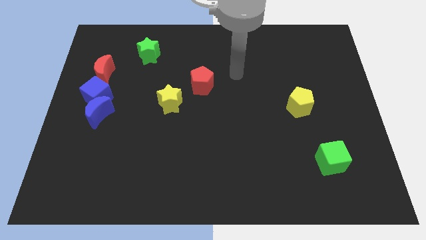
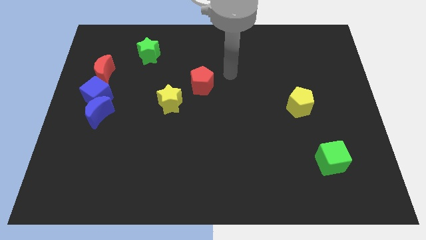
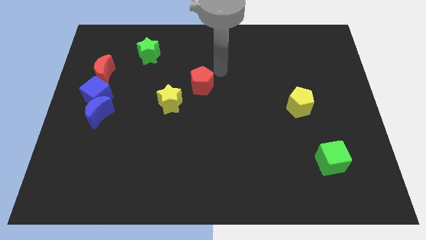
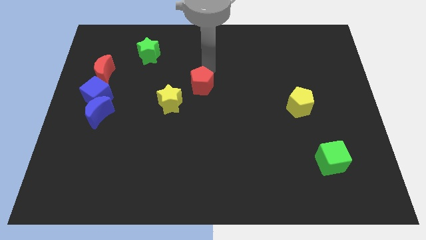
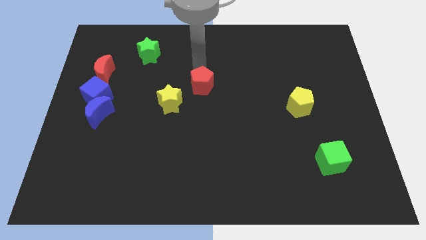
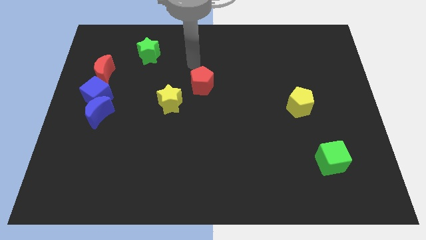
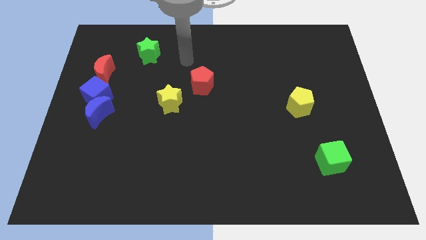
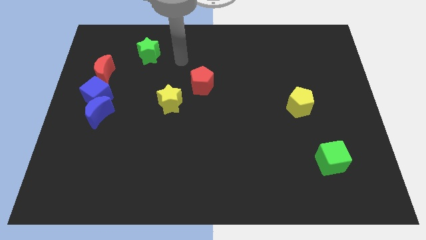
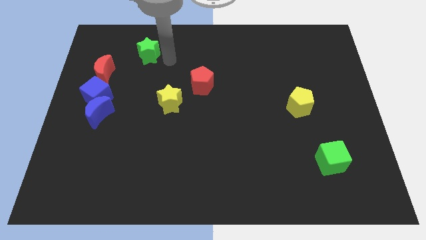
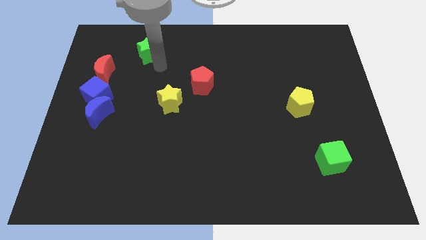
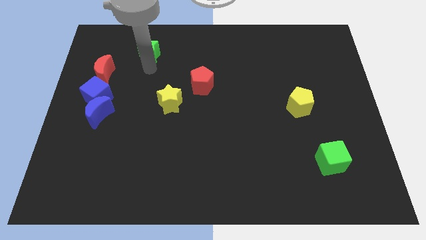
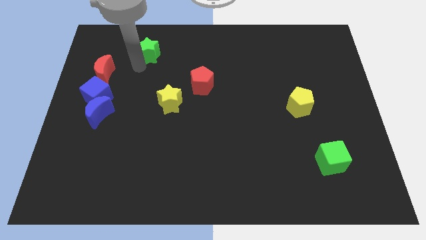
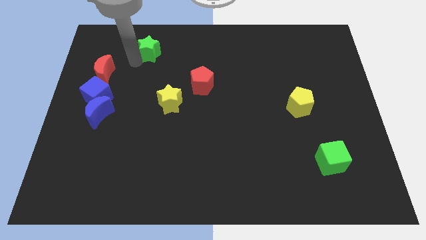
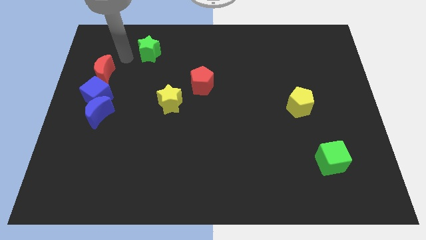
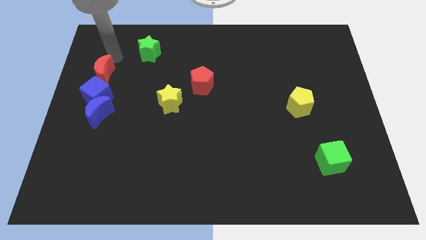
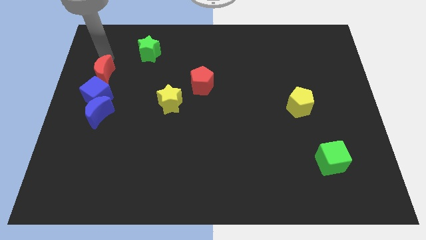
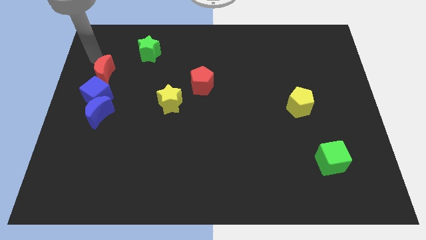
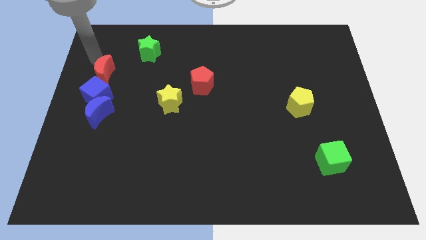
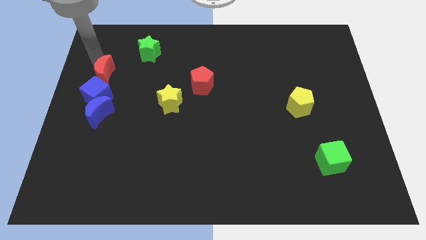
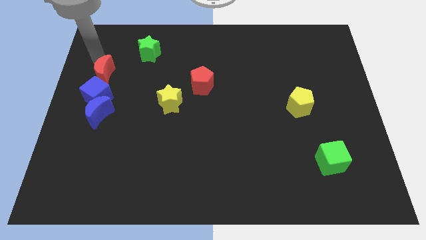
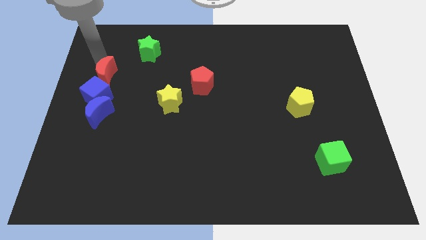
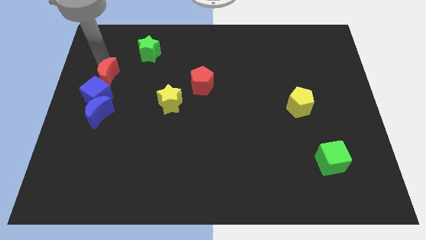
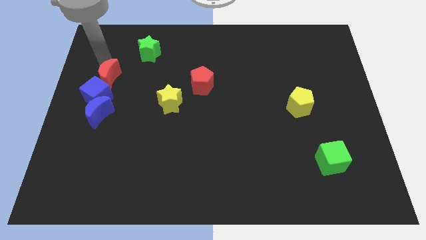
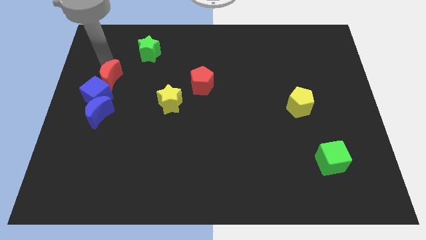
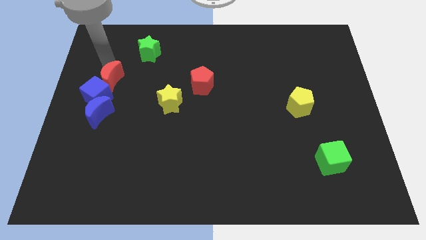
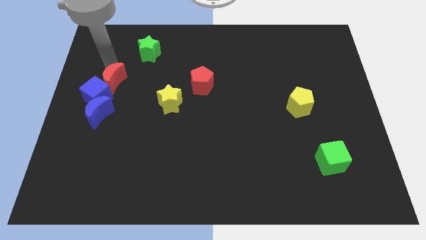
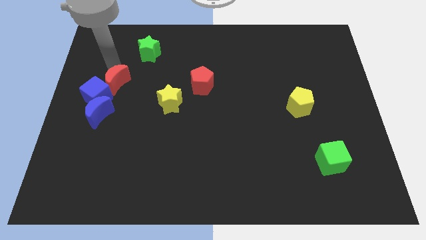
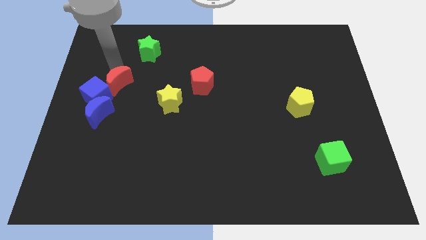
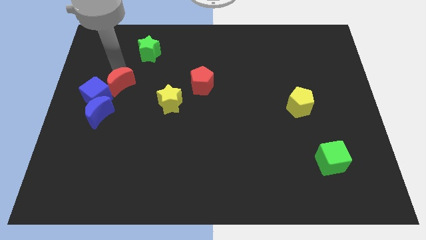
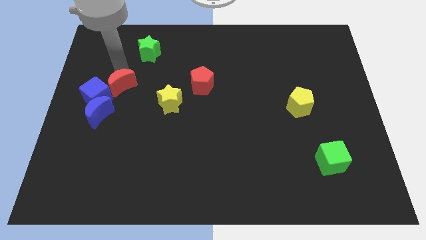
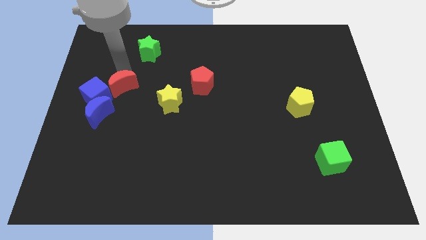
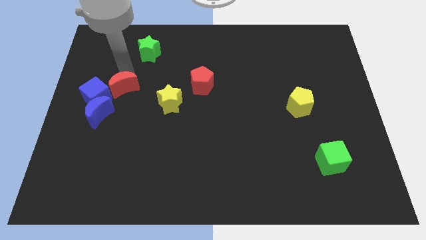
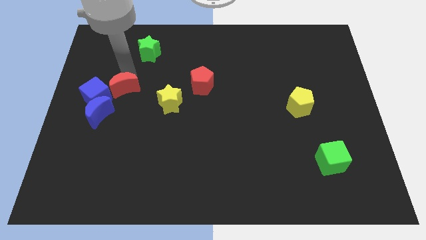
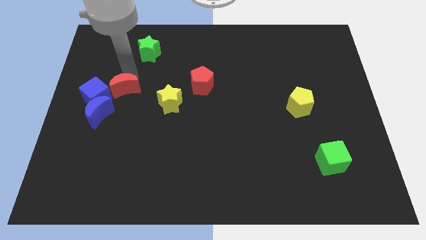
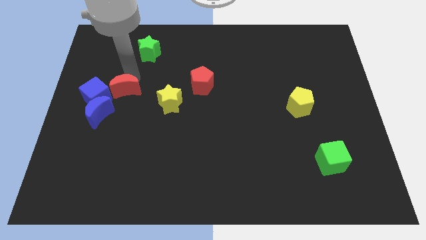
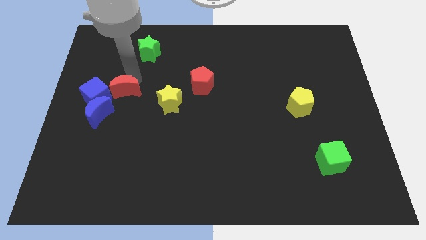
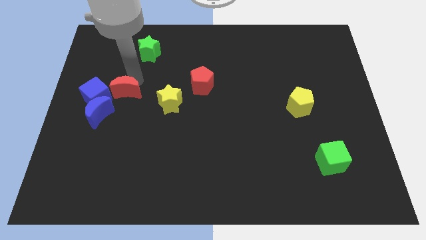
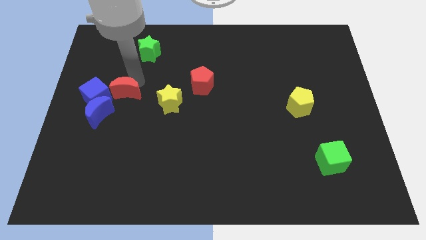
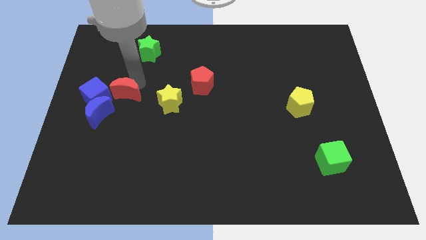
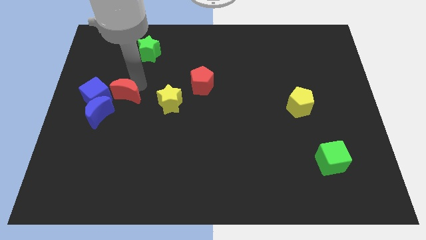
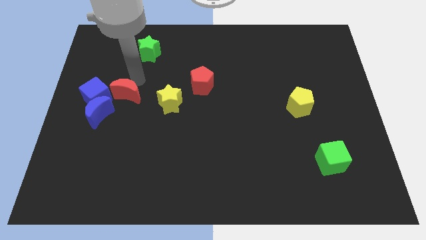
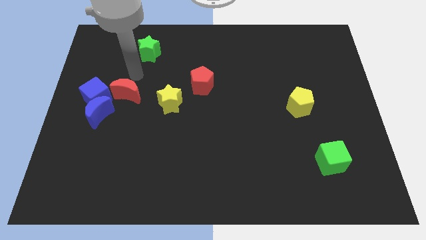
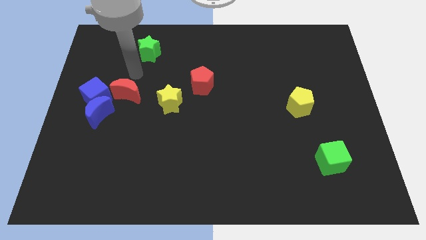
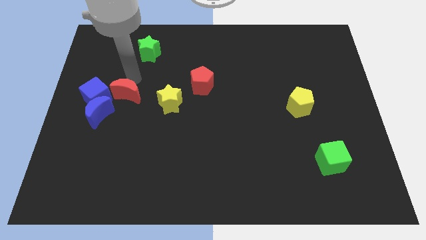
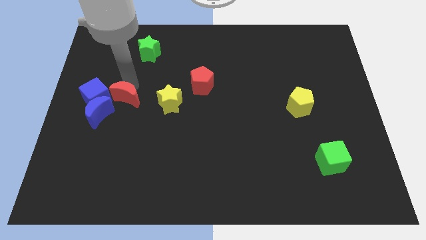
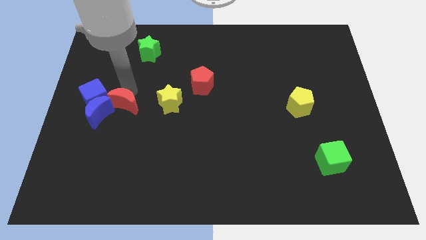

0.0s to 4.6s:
slightly move the red moon downwards

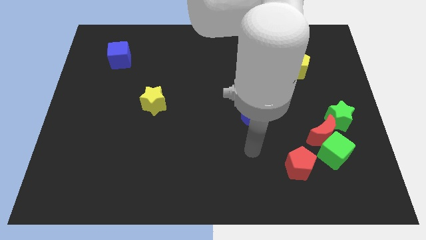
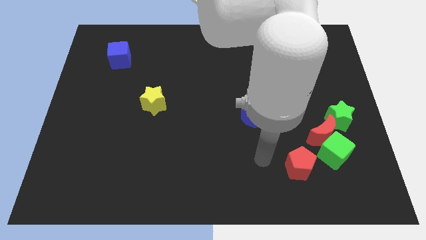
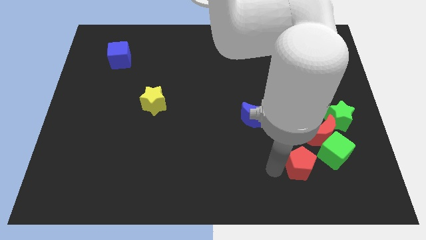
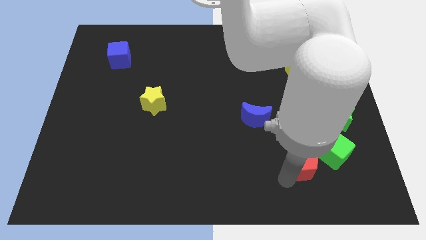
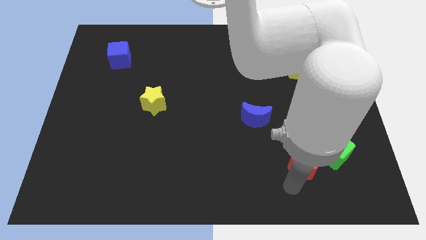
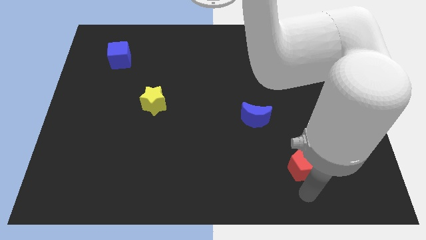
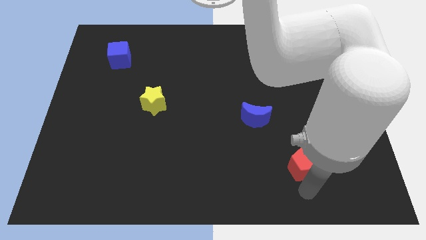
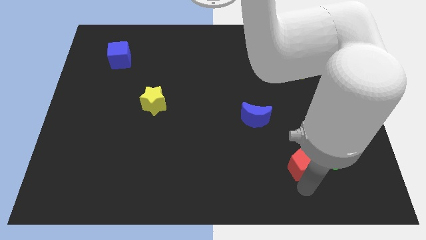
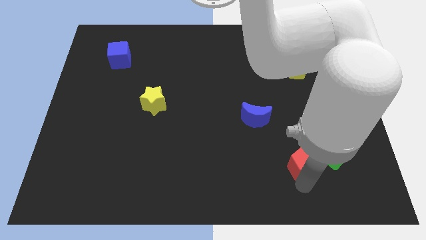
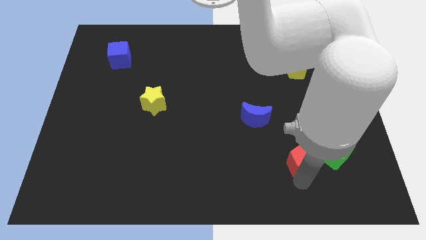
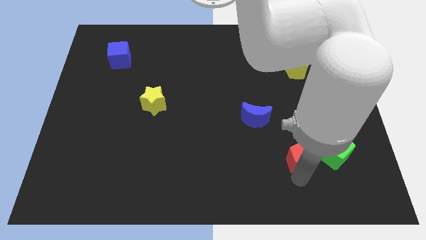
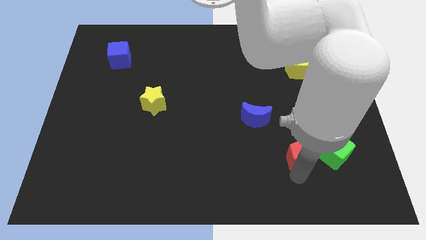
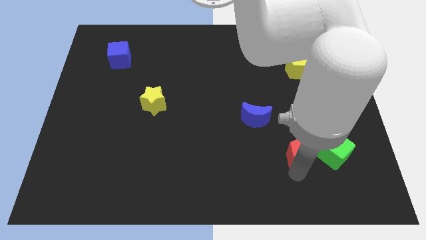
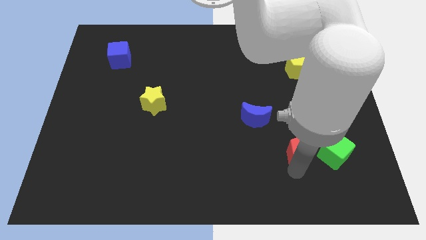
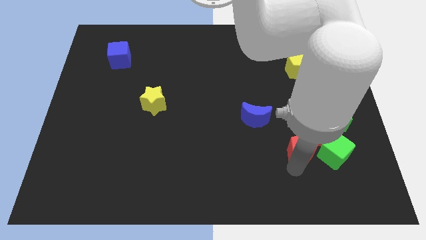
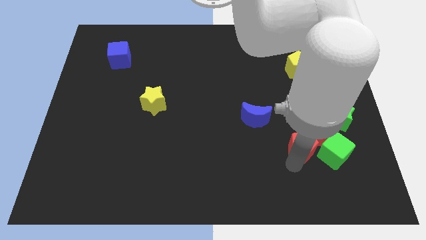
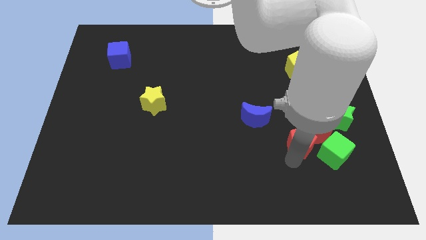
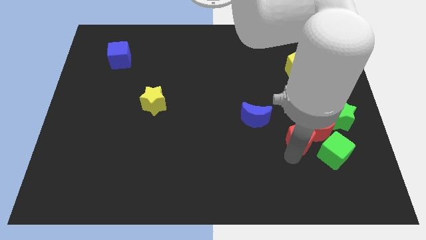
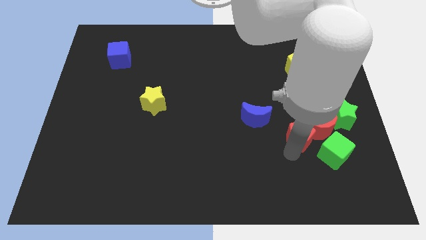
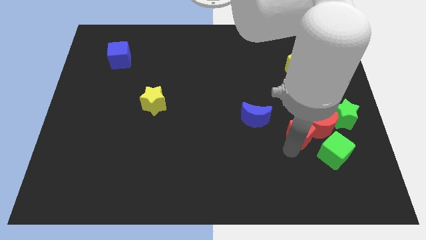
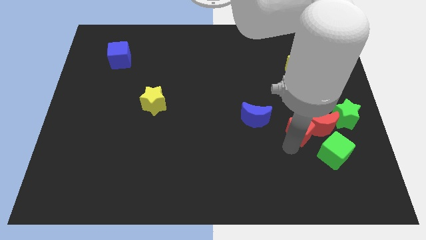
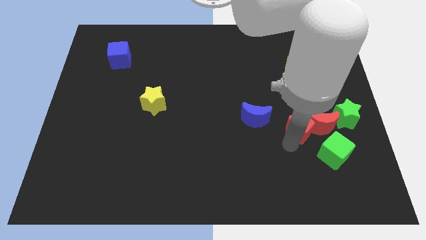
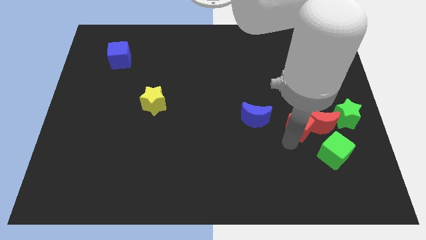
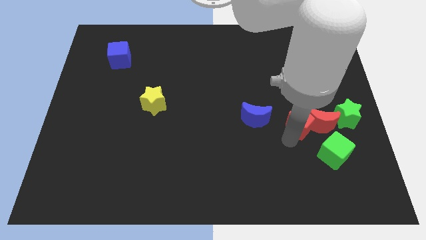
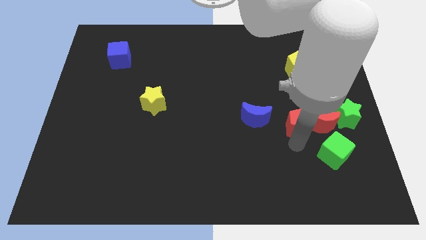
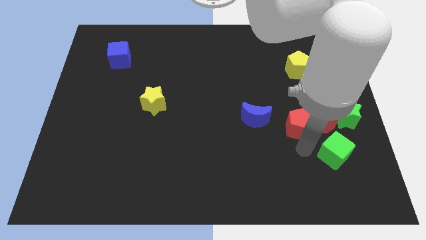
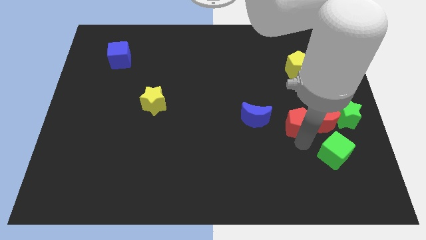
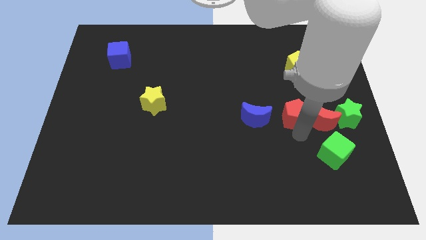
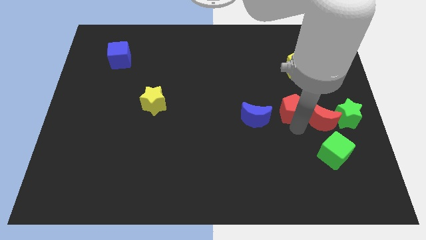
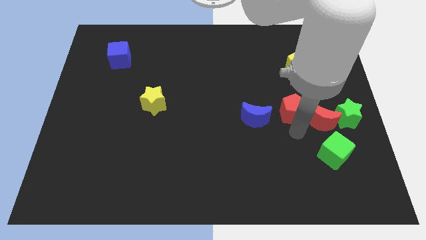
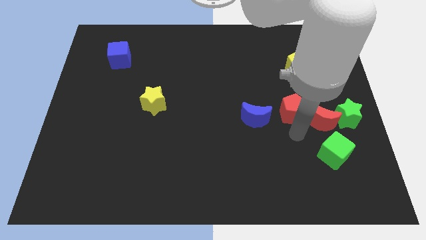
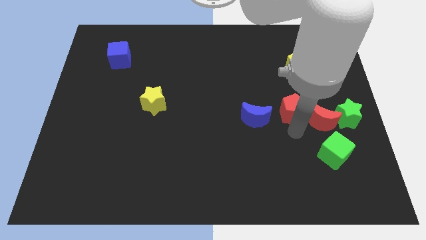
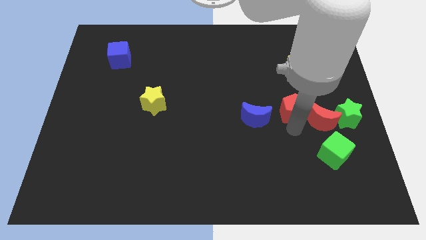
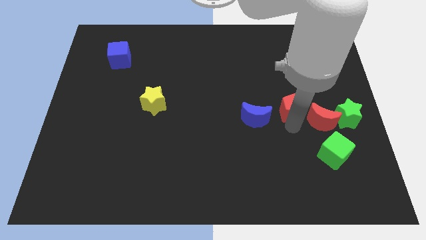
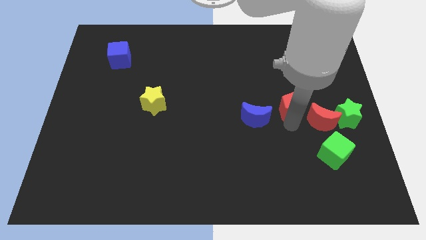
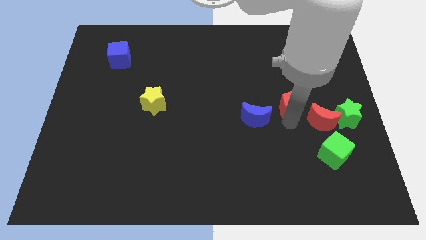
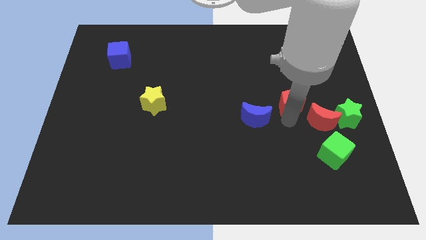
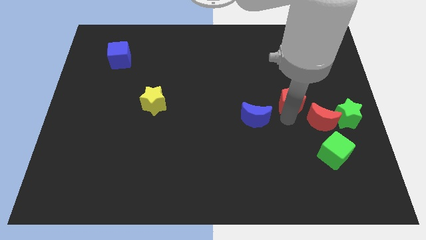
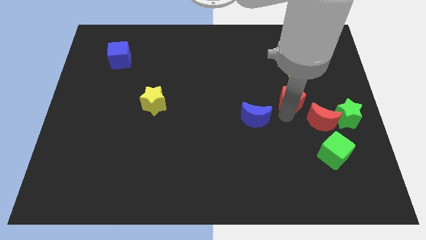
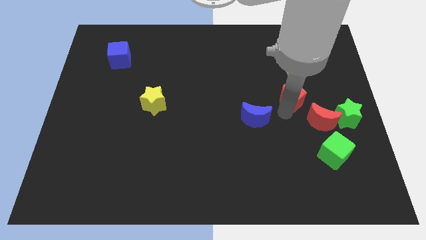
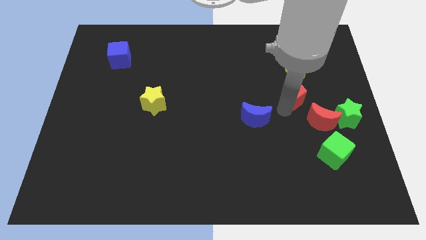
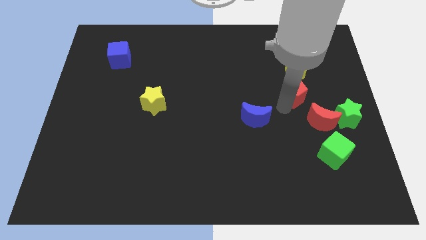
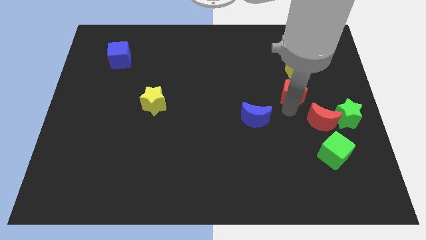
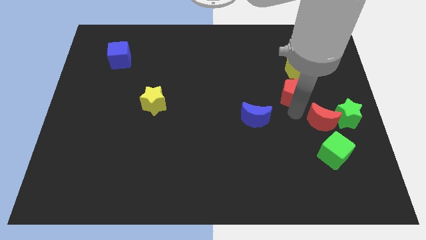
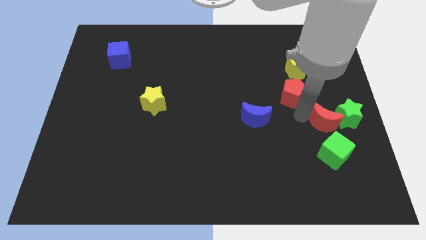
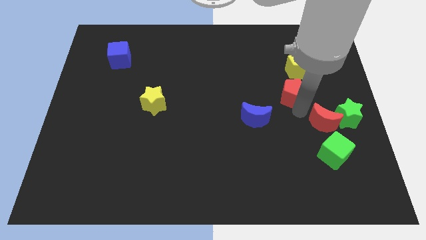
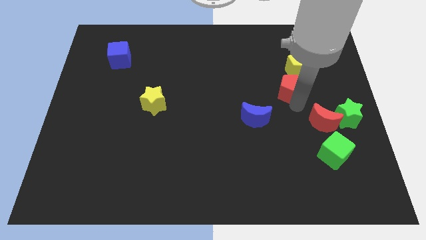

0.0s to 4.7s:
slide the red pentagon up
